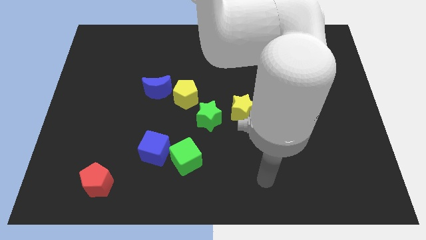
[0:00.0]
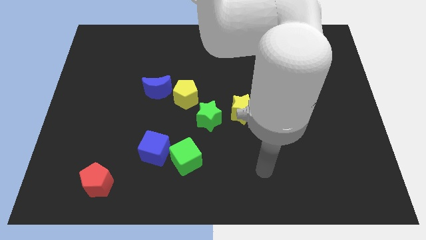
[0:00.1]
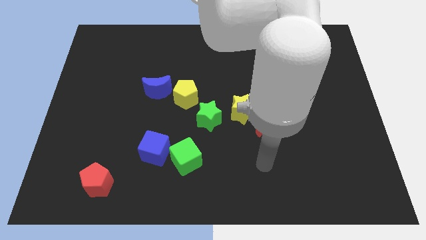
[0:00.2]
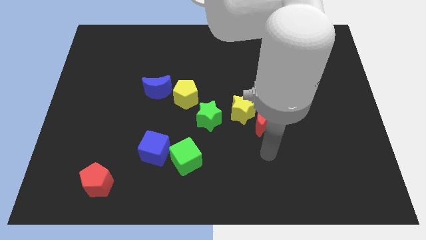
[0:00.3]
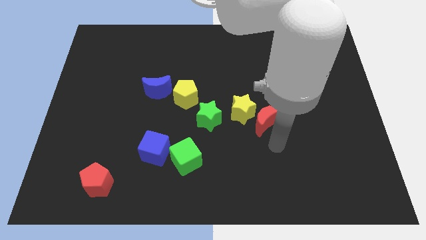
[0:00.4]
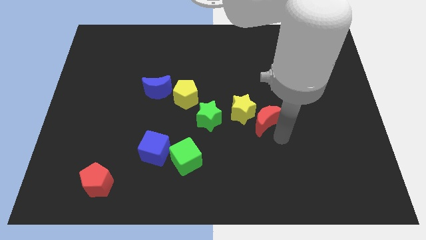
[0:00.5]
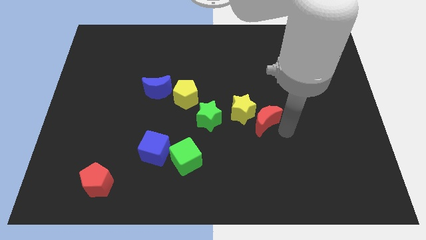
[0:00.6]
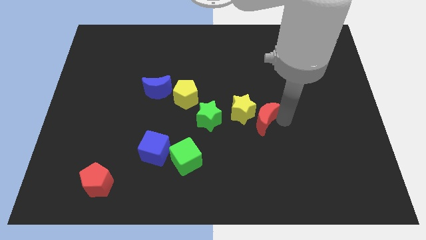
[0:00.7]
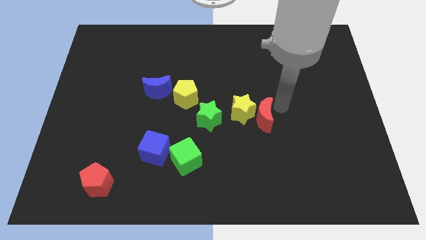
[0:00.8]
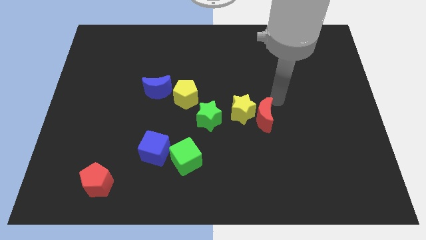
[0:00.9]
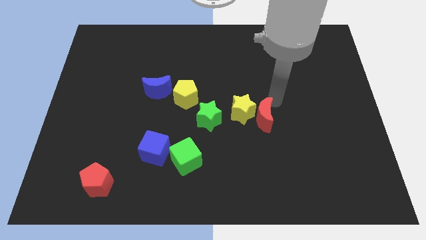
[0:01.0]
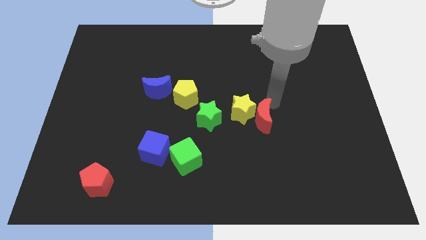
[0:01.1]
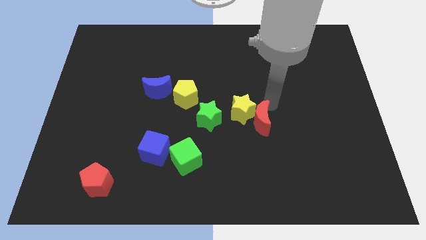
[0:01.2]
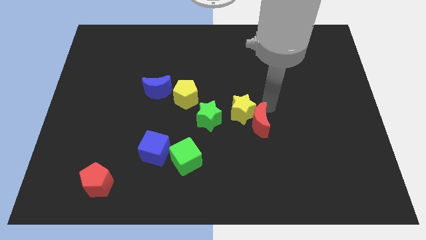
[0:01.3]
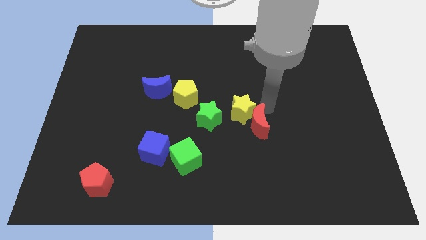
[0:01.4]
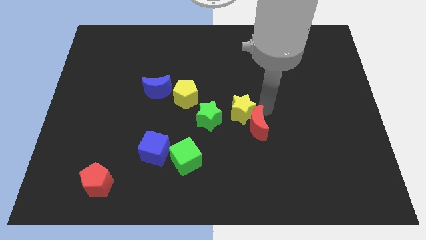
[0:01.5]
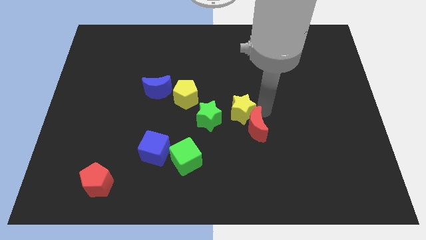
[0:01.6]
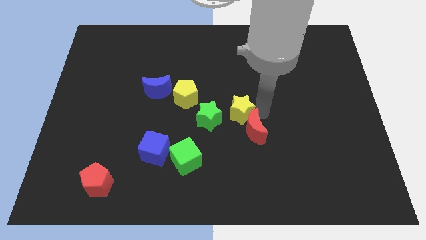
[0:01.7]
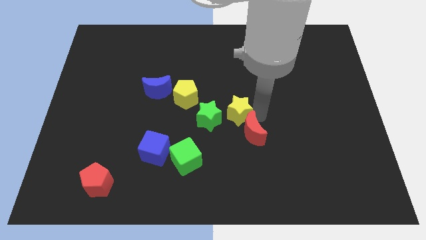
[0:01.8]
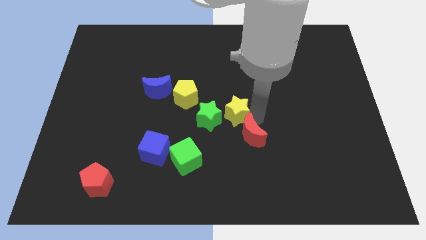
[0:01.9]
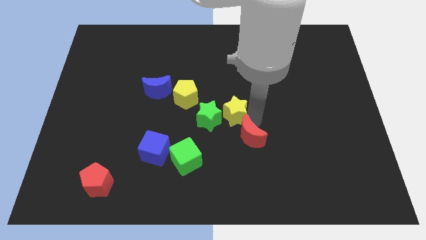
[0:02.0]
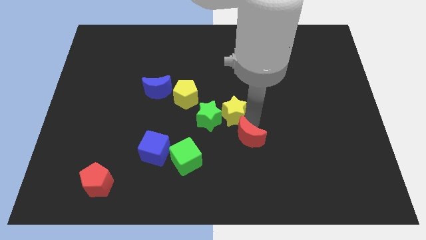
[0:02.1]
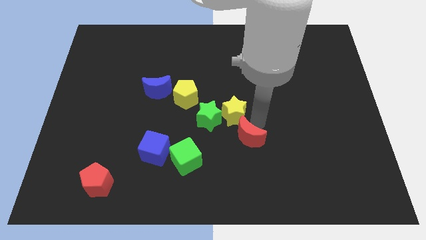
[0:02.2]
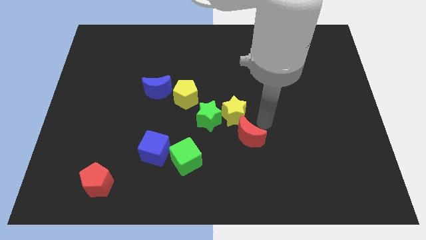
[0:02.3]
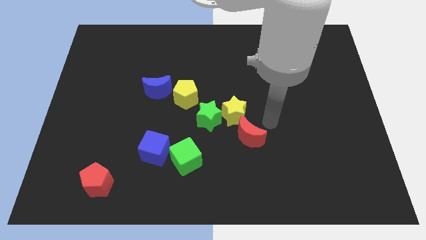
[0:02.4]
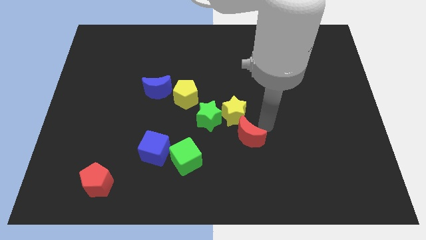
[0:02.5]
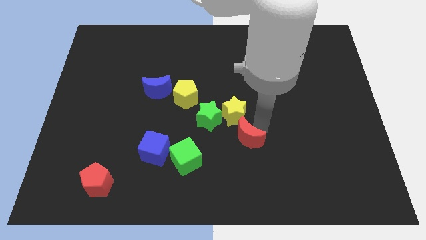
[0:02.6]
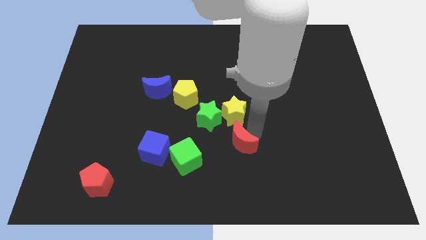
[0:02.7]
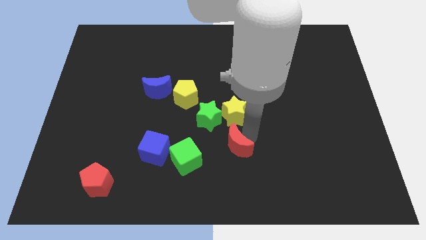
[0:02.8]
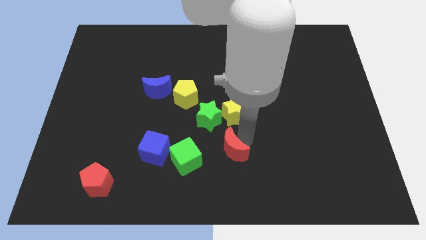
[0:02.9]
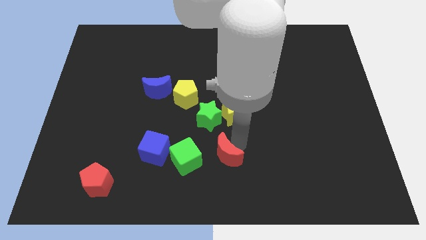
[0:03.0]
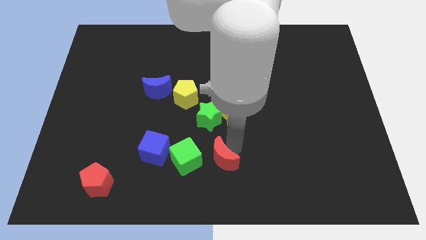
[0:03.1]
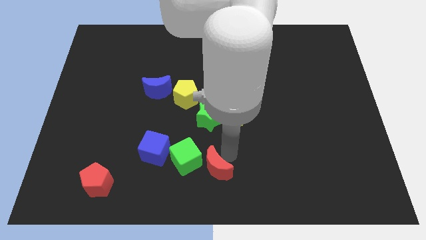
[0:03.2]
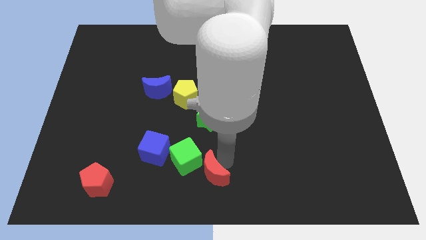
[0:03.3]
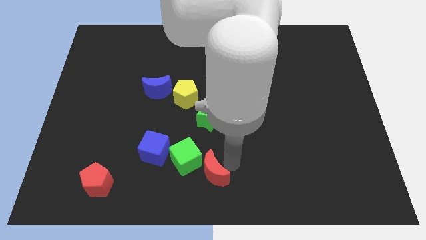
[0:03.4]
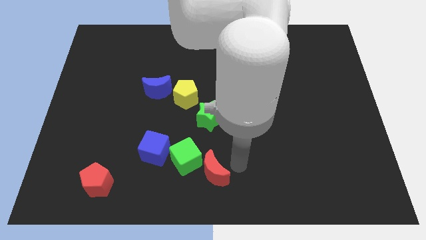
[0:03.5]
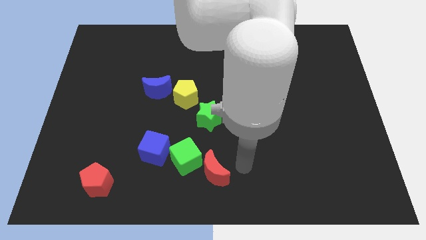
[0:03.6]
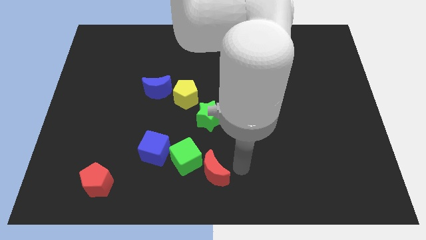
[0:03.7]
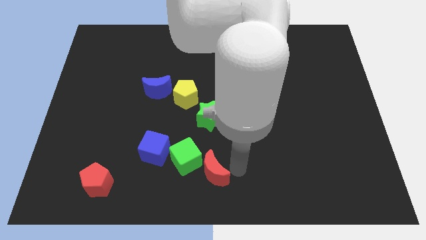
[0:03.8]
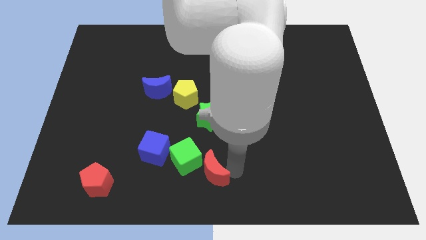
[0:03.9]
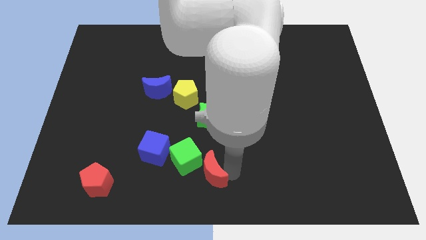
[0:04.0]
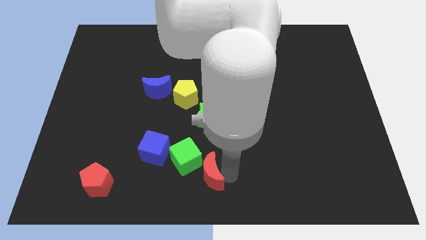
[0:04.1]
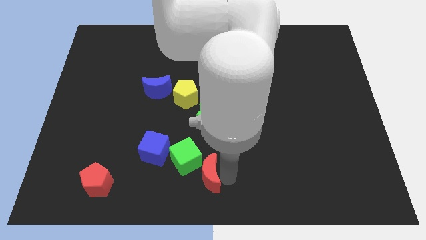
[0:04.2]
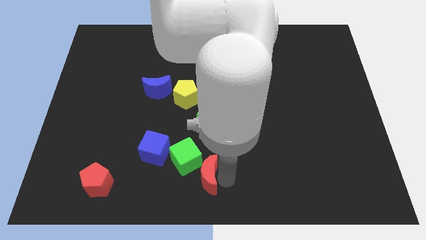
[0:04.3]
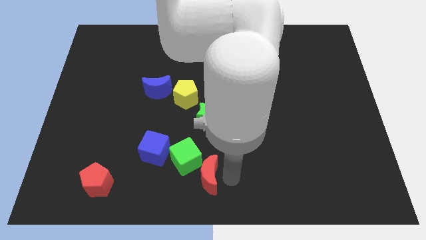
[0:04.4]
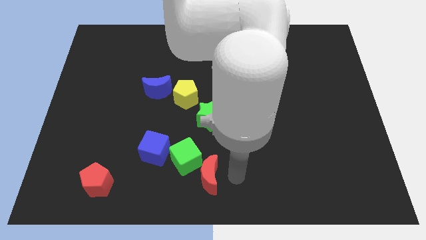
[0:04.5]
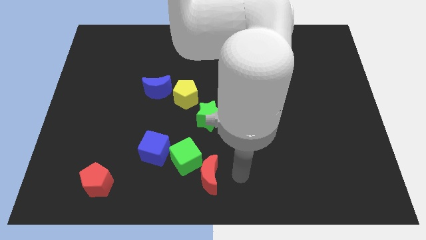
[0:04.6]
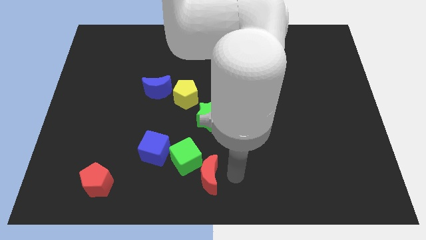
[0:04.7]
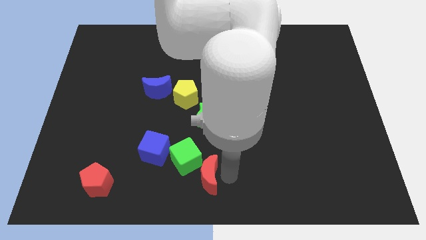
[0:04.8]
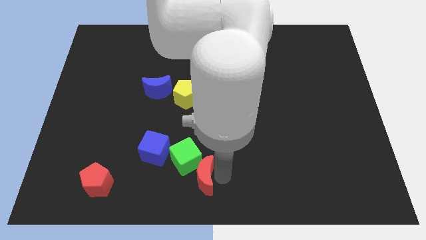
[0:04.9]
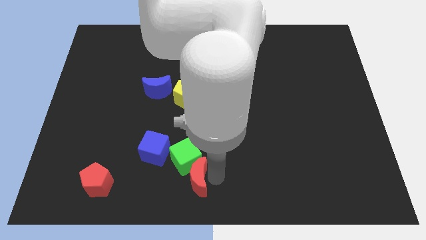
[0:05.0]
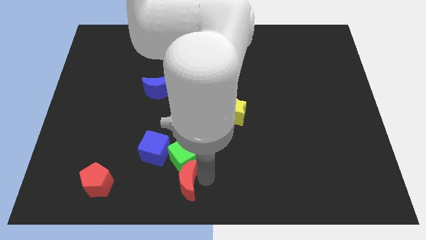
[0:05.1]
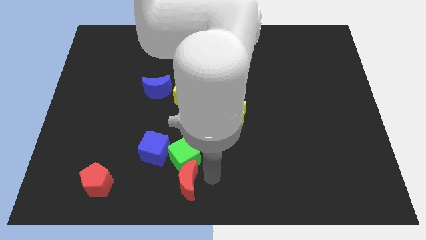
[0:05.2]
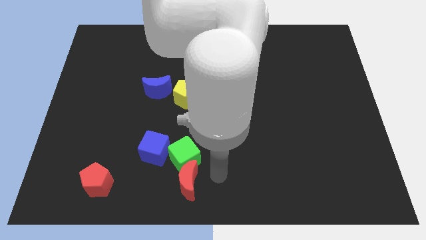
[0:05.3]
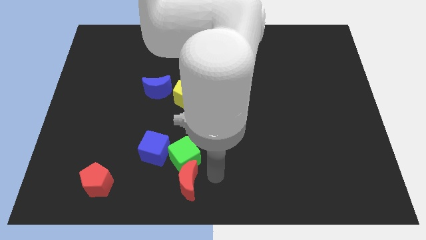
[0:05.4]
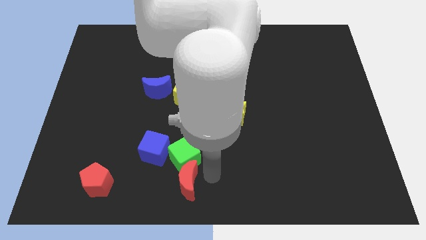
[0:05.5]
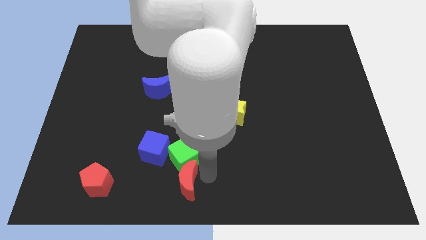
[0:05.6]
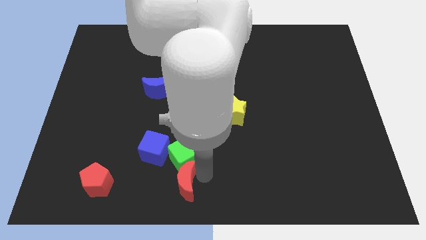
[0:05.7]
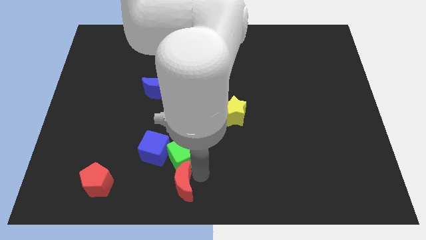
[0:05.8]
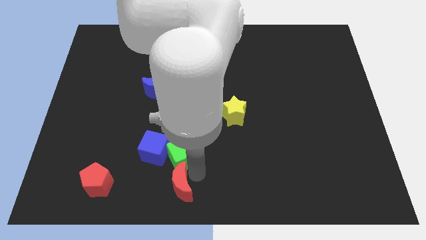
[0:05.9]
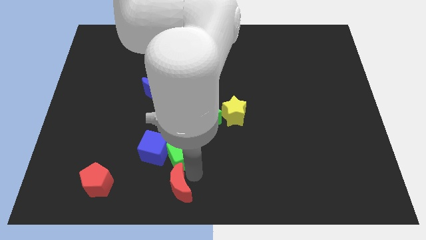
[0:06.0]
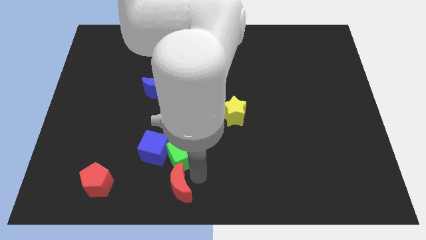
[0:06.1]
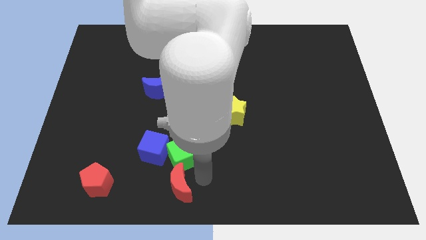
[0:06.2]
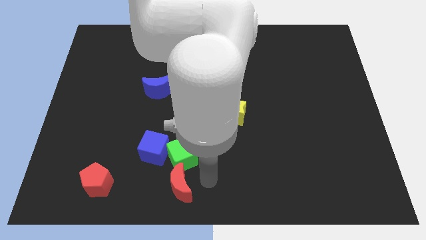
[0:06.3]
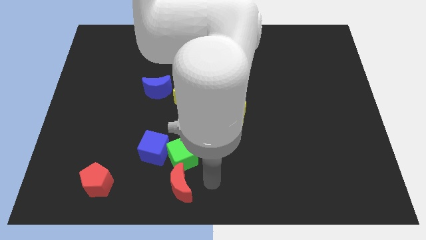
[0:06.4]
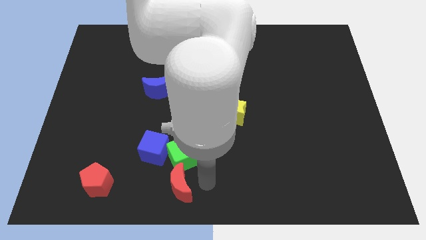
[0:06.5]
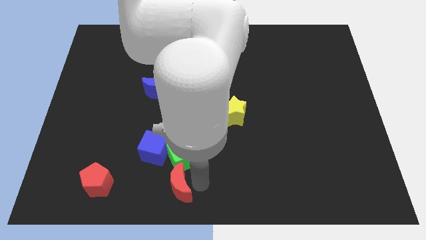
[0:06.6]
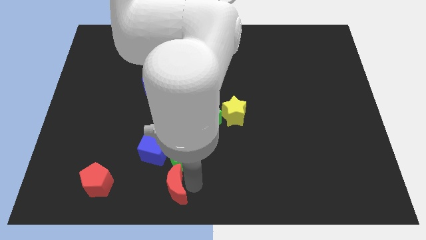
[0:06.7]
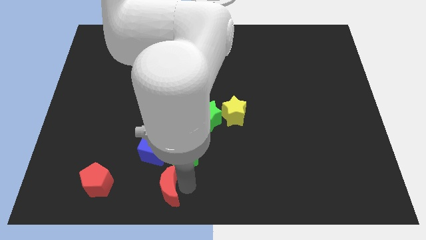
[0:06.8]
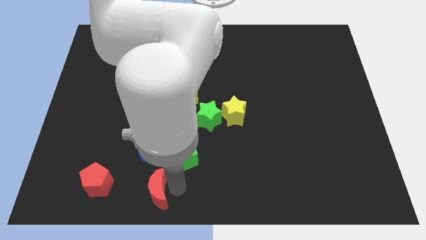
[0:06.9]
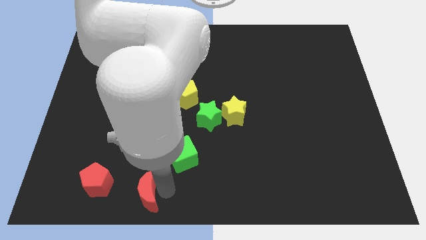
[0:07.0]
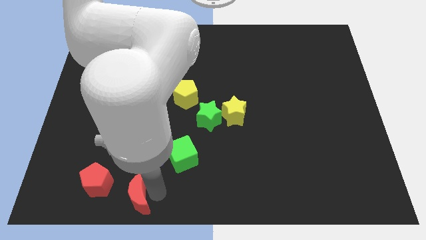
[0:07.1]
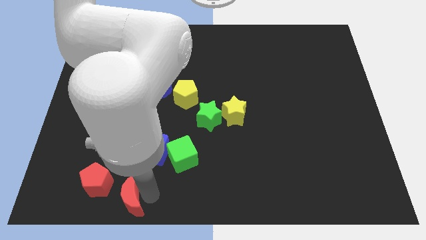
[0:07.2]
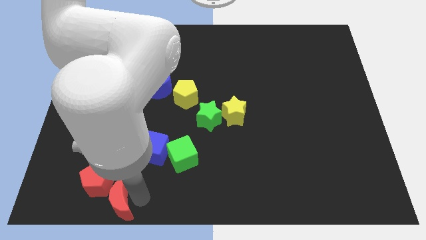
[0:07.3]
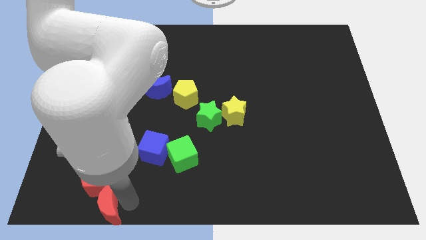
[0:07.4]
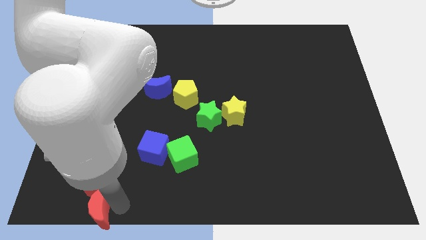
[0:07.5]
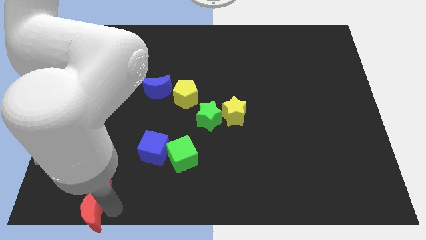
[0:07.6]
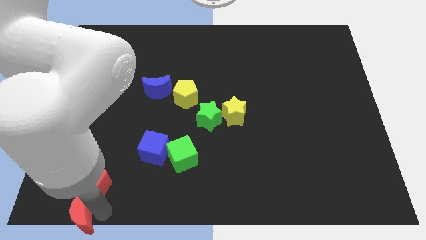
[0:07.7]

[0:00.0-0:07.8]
move the red moon to the bottom left corner

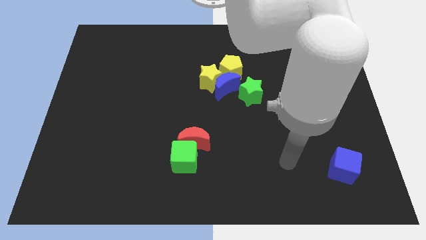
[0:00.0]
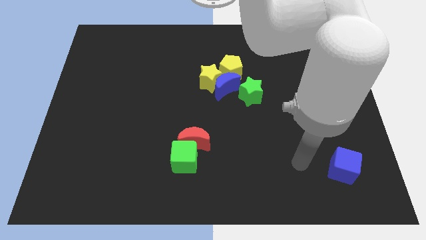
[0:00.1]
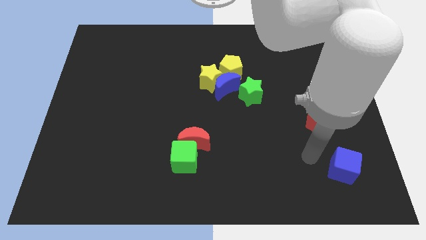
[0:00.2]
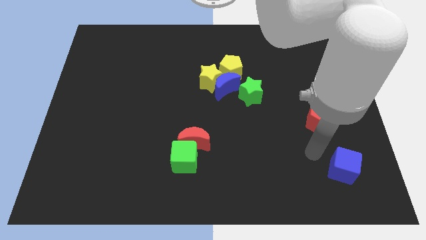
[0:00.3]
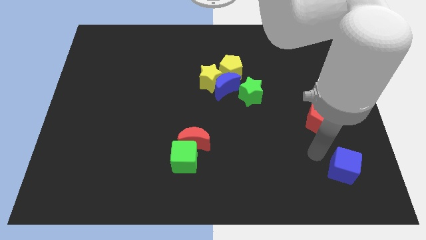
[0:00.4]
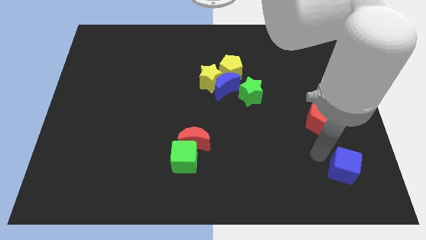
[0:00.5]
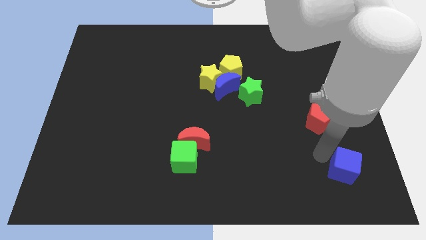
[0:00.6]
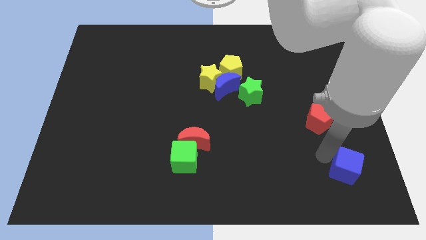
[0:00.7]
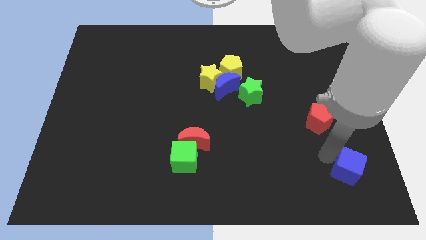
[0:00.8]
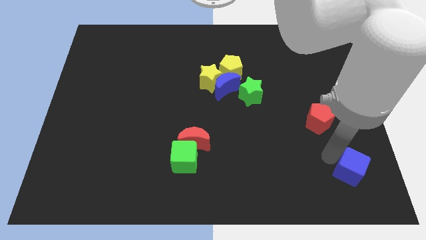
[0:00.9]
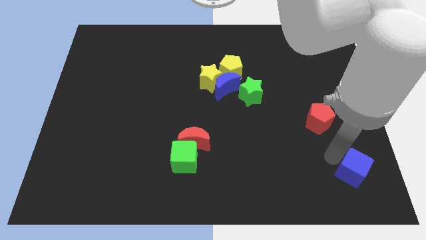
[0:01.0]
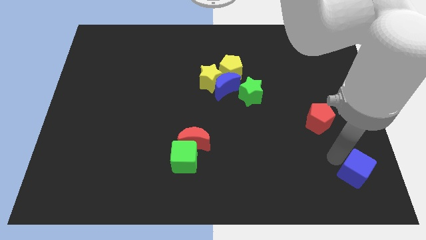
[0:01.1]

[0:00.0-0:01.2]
push the blue cube to the bottom right of the board
